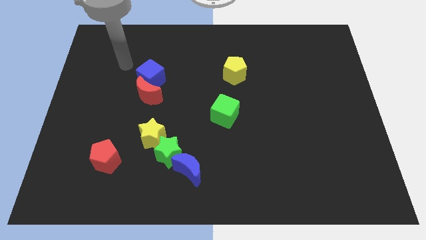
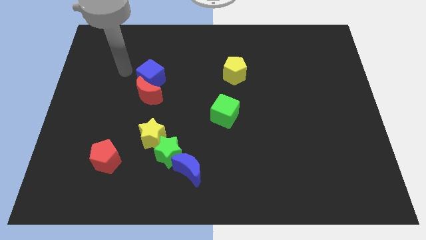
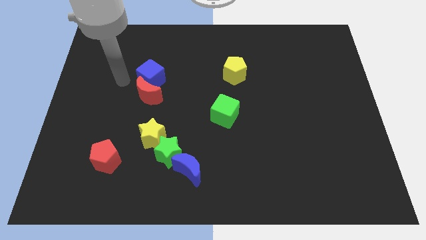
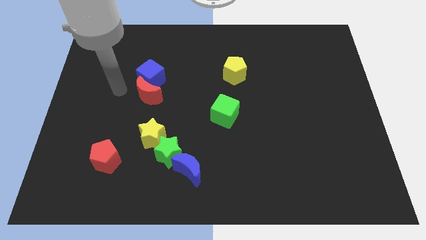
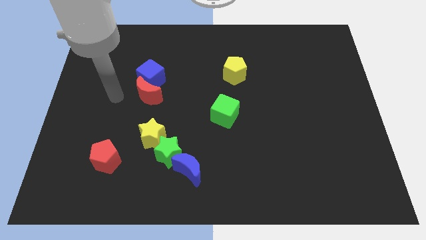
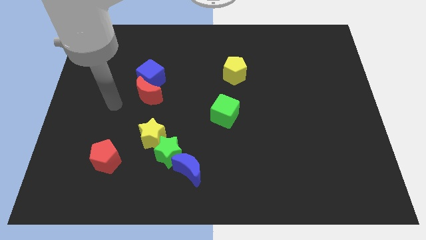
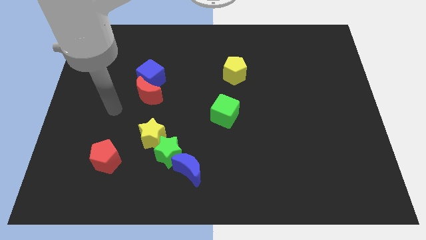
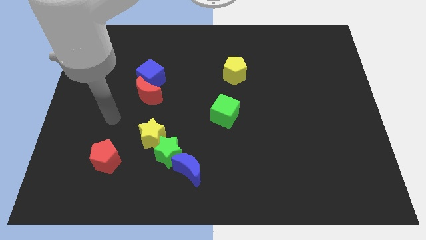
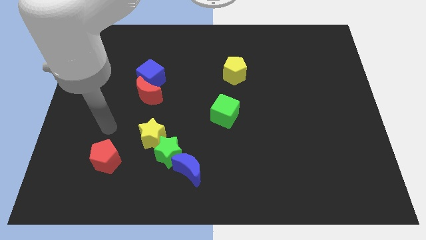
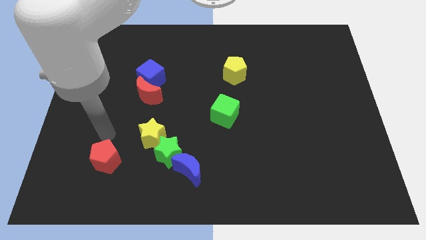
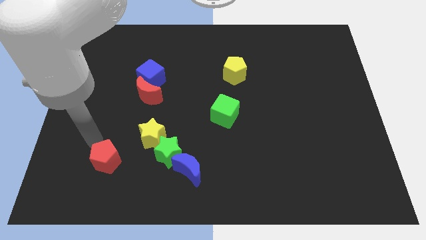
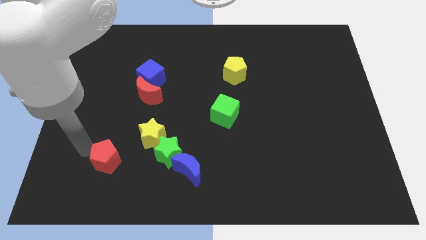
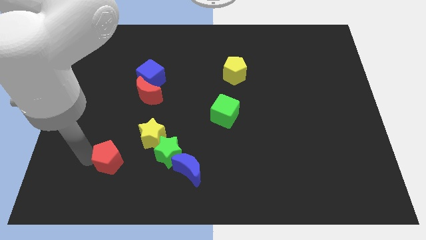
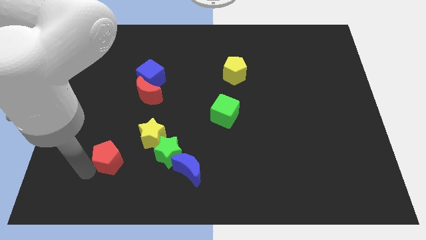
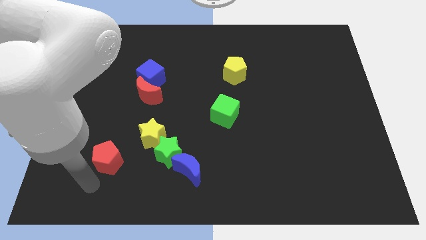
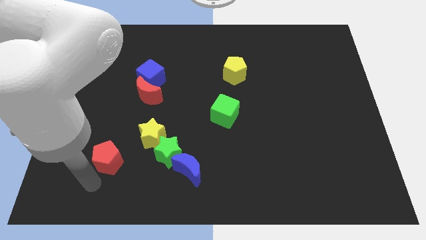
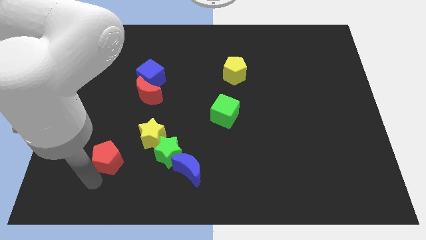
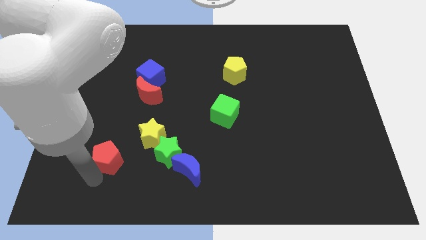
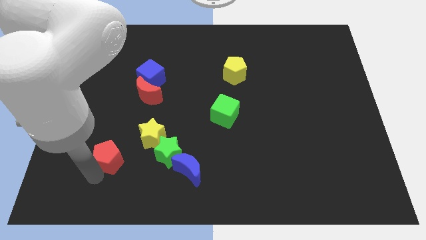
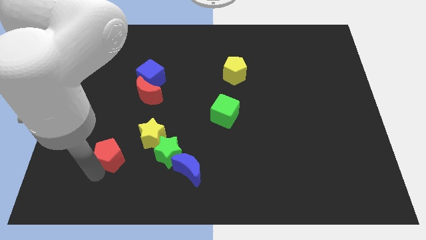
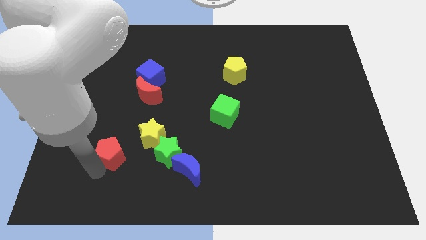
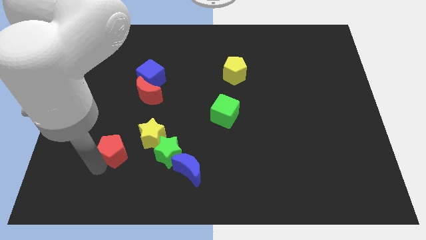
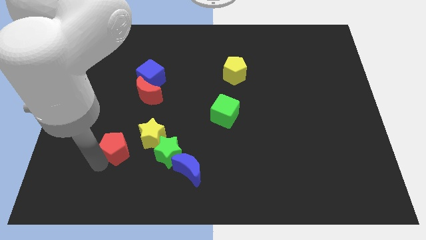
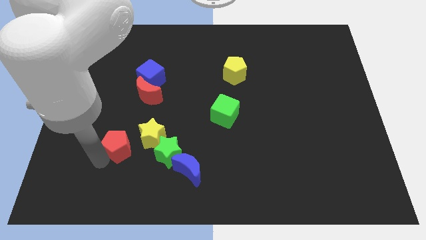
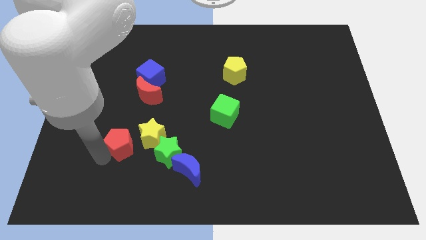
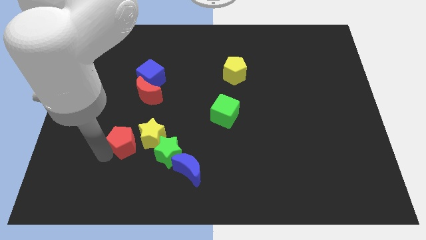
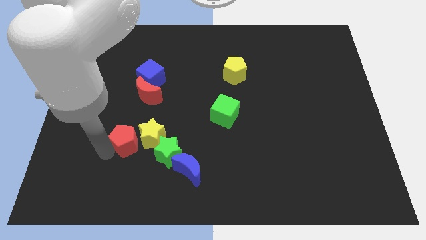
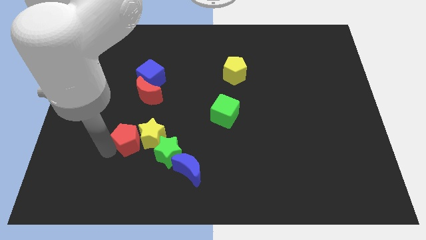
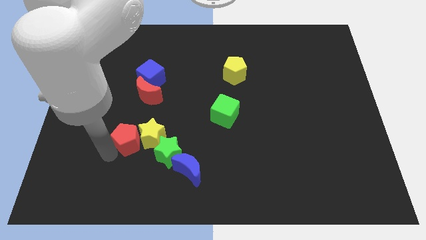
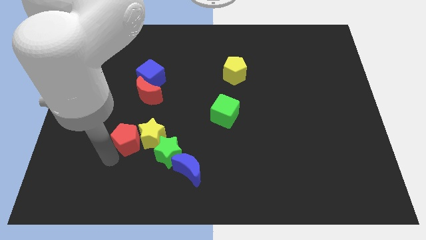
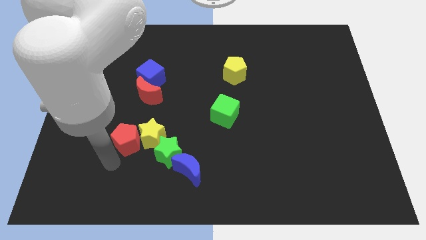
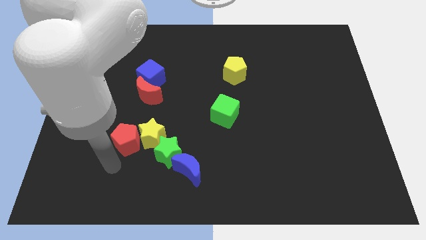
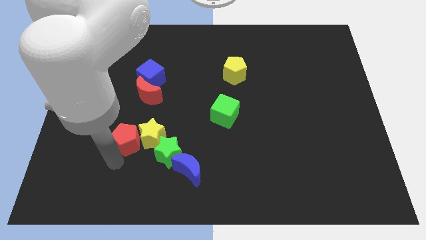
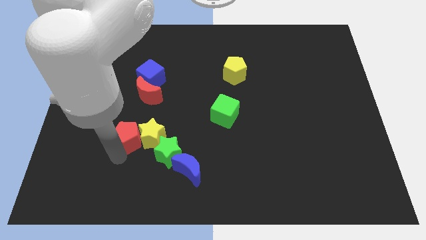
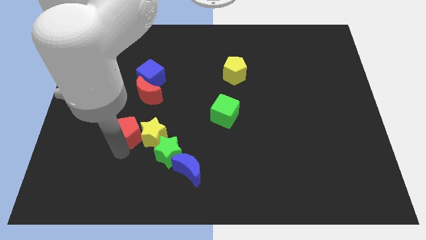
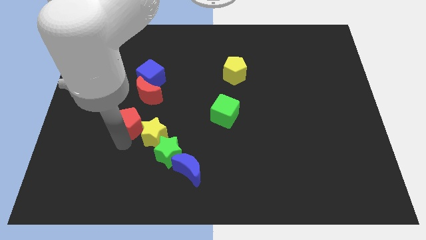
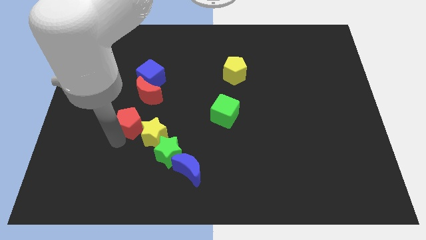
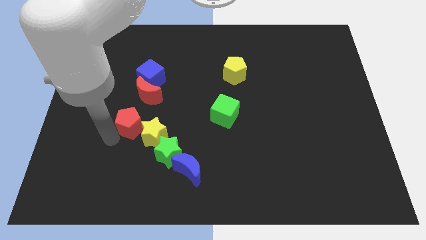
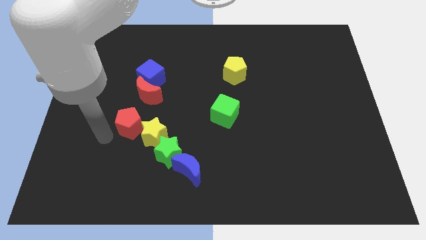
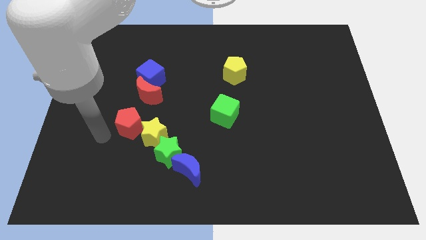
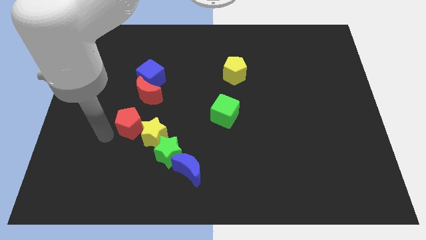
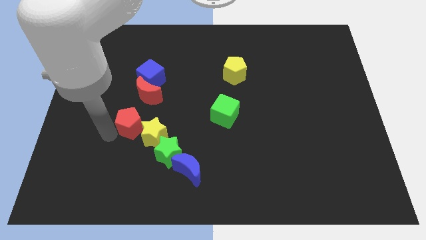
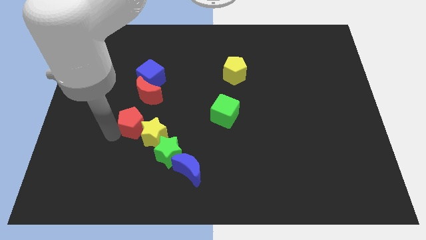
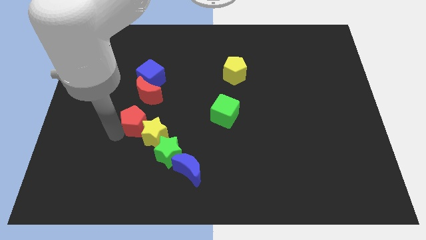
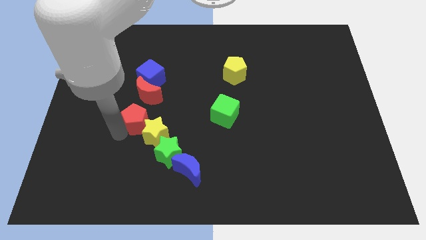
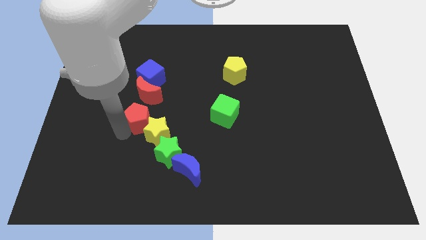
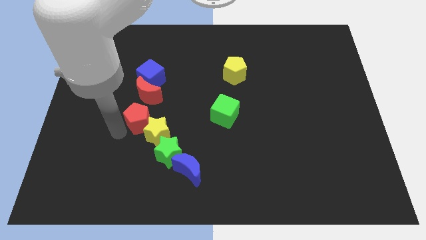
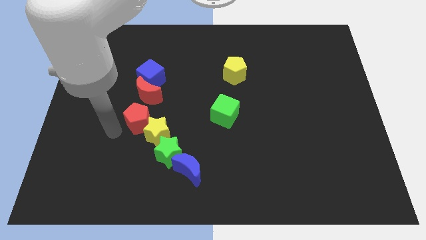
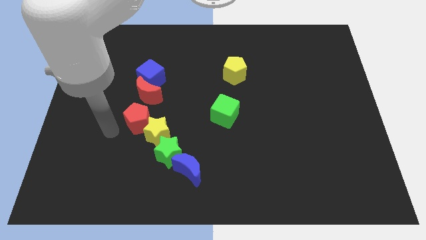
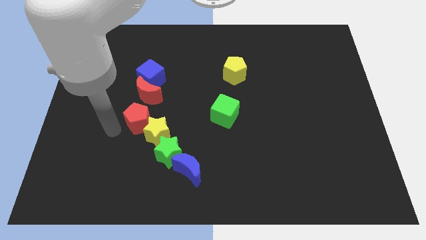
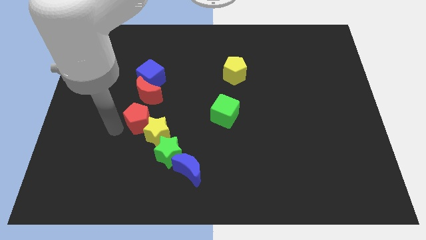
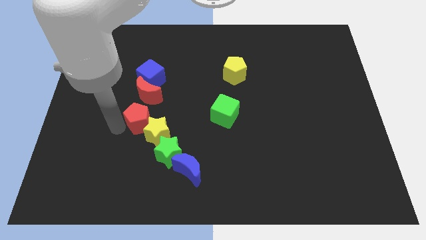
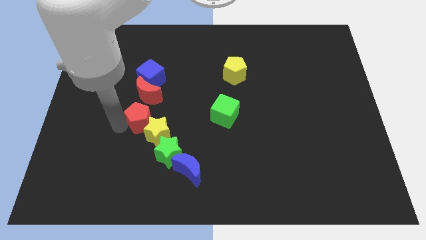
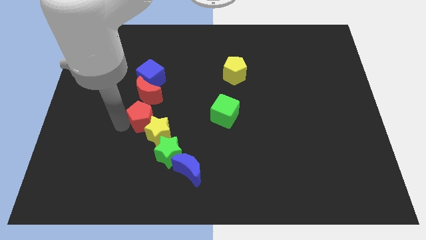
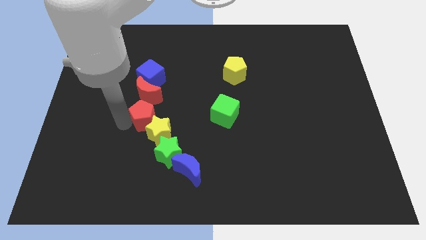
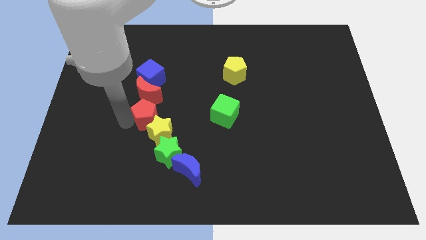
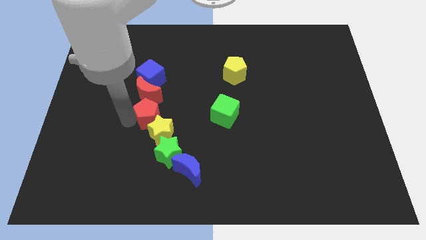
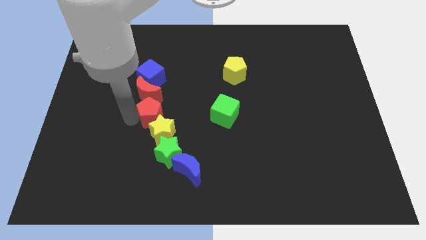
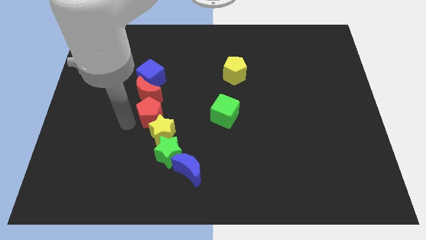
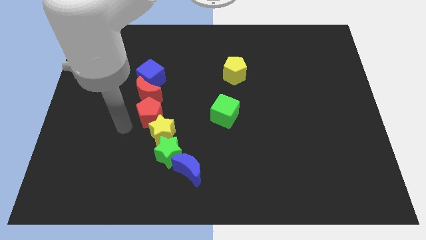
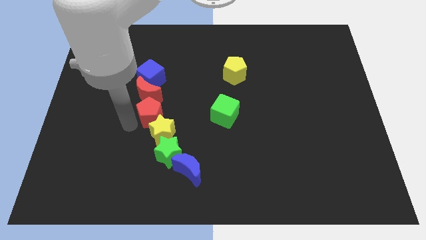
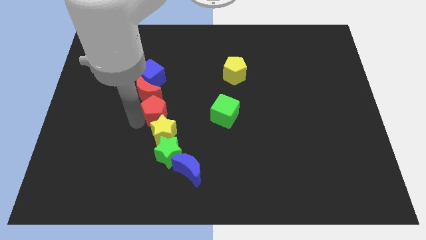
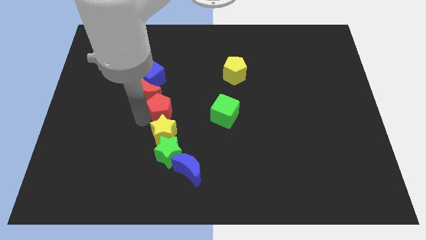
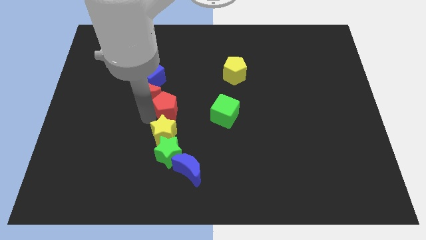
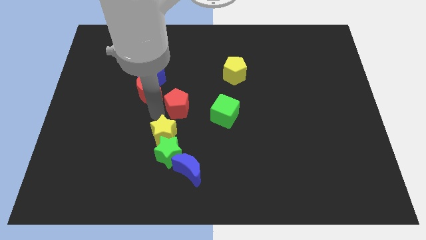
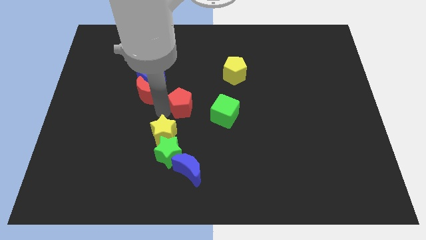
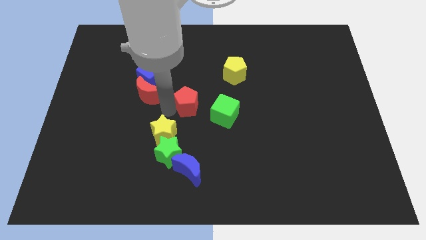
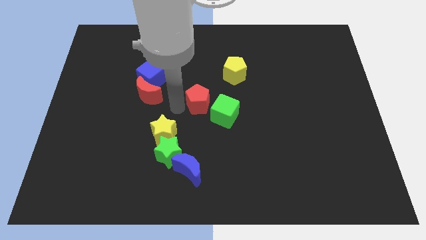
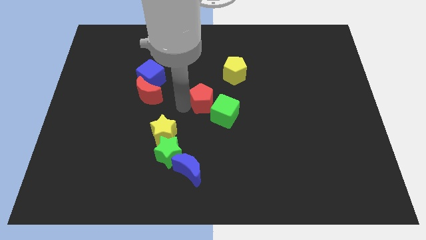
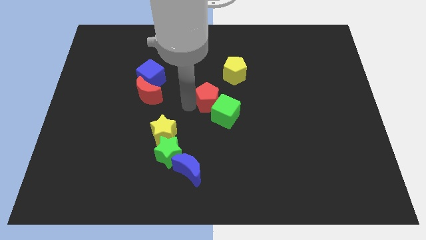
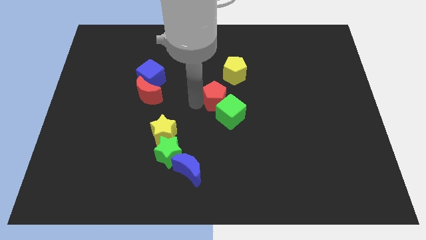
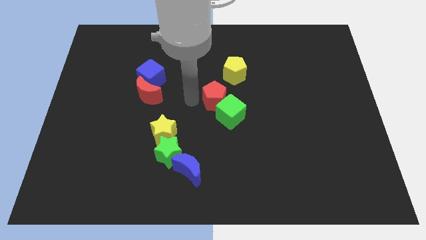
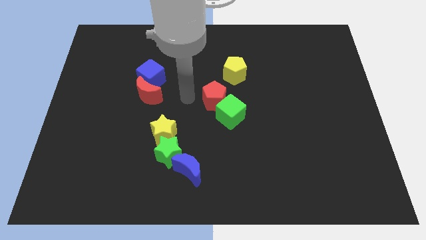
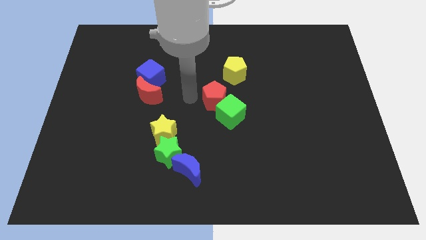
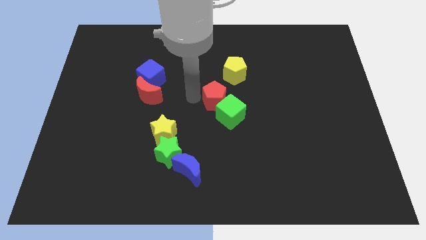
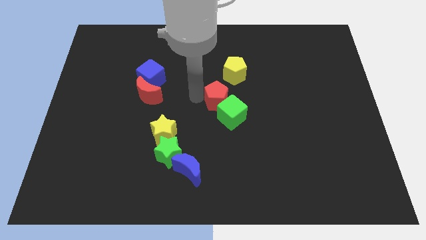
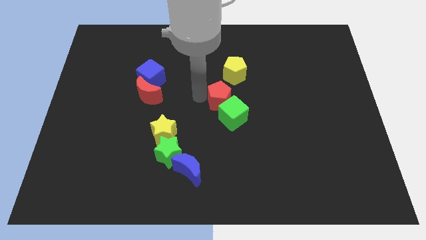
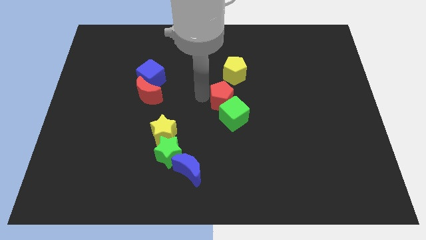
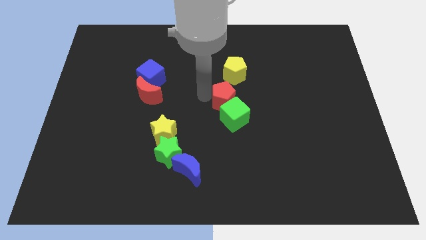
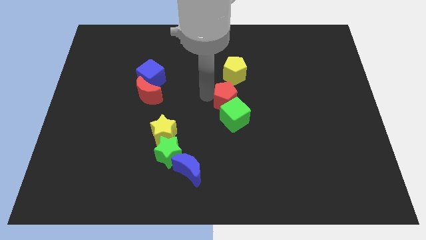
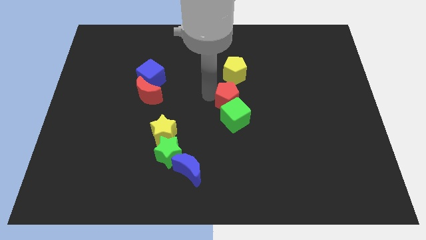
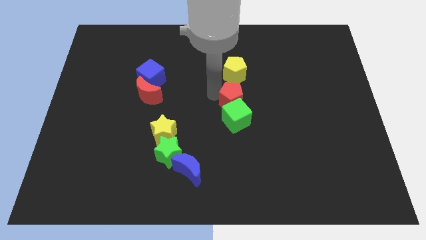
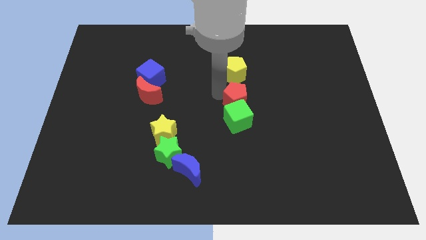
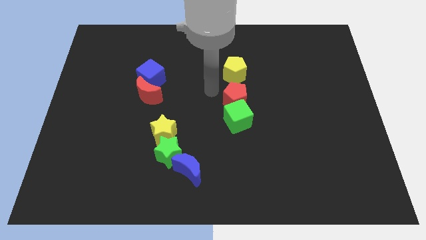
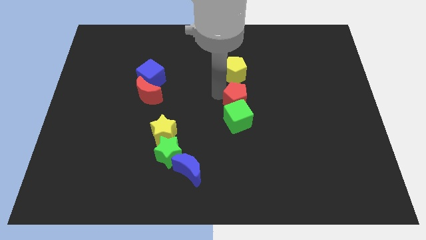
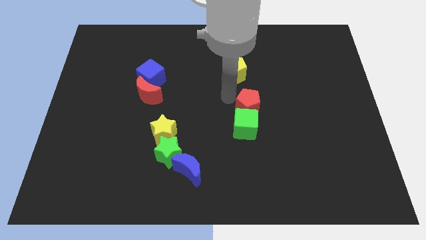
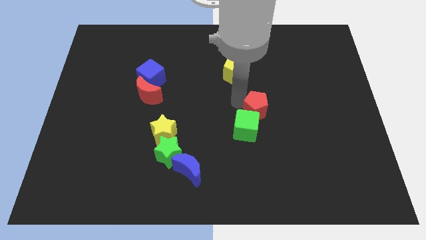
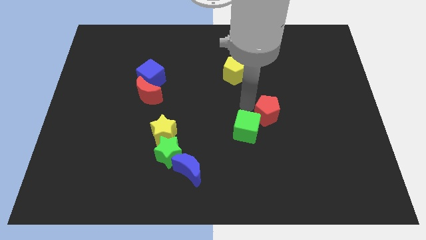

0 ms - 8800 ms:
put the red pentagon to the right of the green cube
